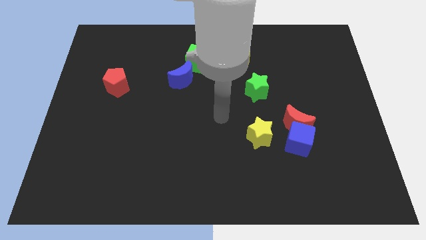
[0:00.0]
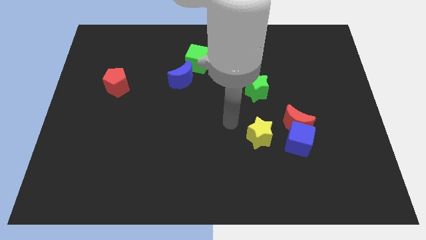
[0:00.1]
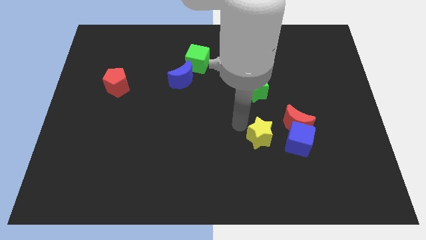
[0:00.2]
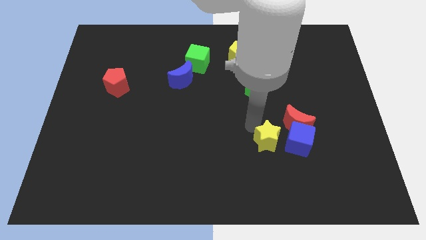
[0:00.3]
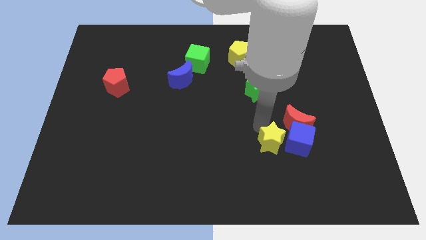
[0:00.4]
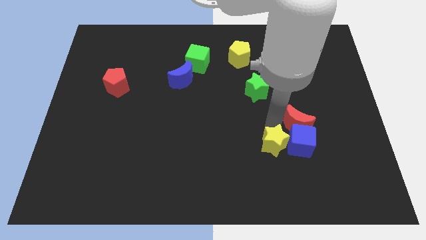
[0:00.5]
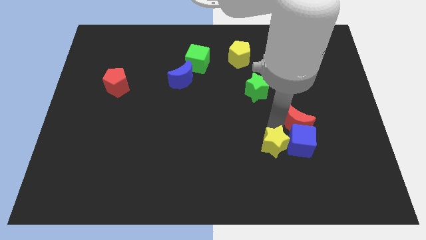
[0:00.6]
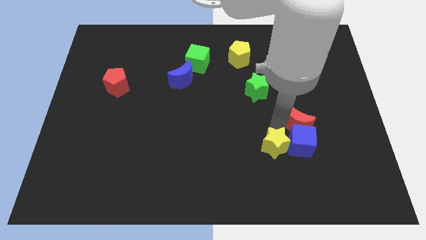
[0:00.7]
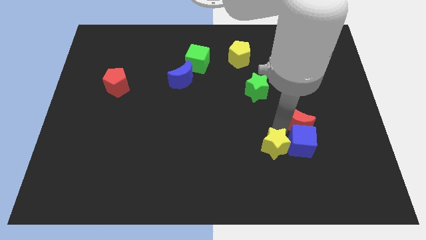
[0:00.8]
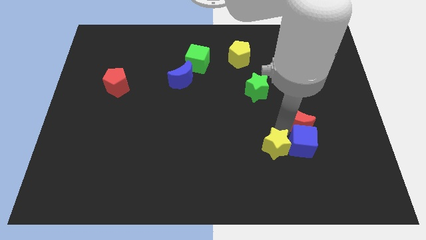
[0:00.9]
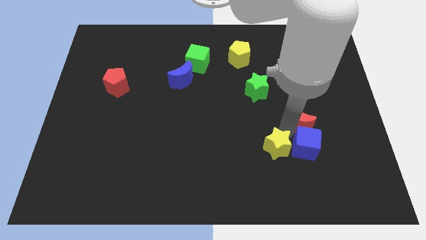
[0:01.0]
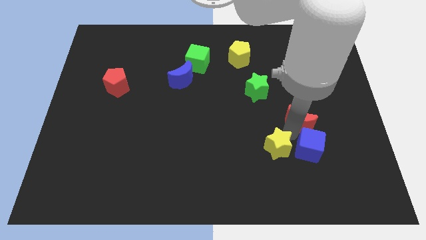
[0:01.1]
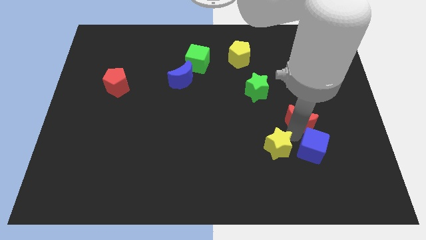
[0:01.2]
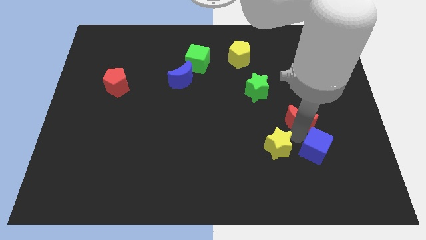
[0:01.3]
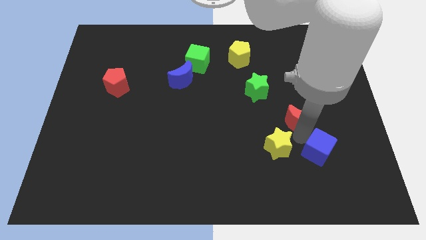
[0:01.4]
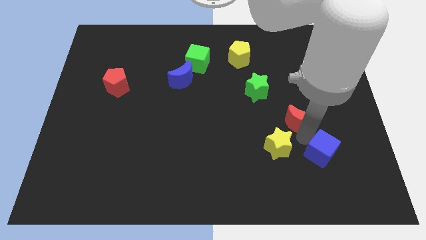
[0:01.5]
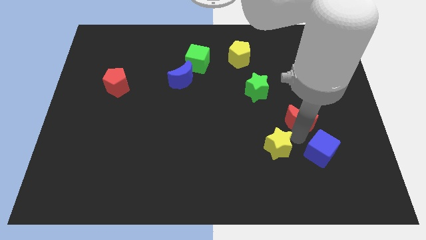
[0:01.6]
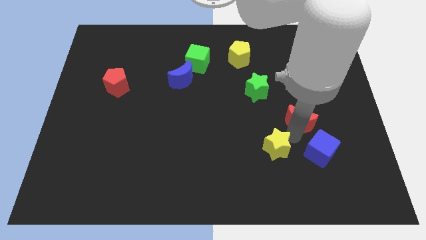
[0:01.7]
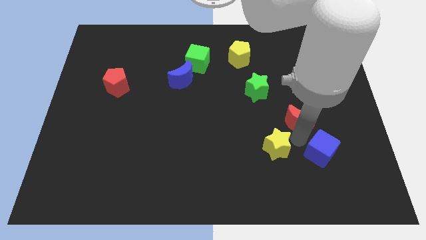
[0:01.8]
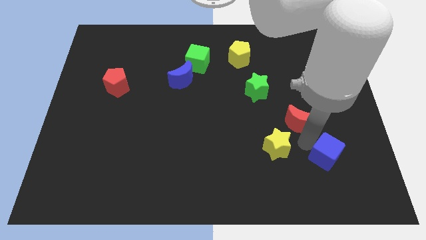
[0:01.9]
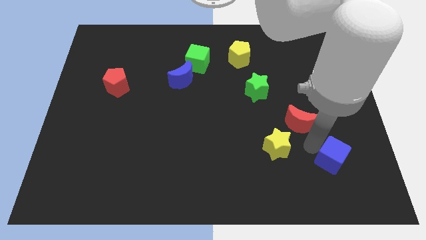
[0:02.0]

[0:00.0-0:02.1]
separate the blue cube from the red moon and yellow star

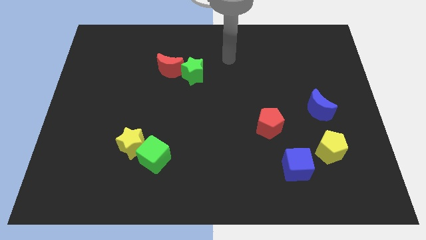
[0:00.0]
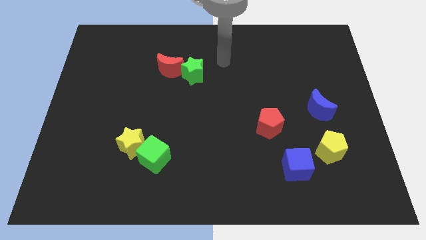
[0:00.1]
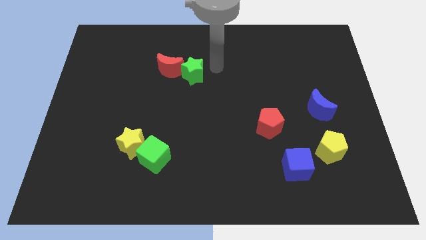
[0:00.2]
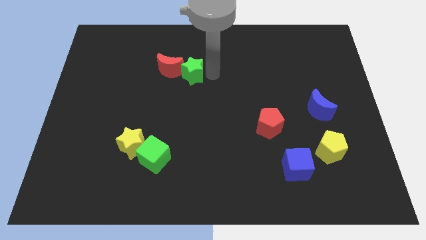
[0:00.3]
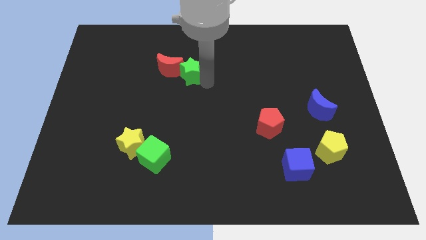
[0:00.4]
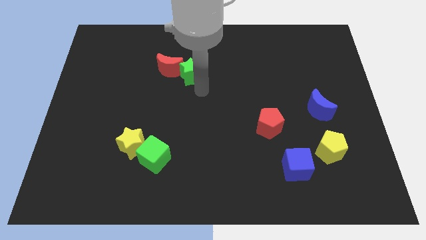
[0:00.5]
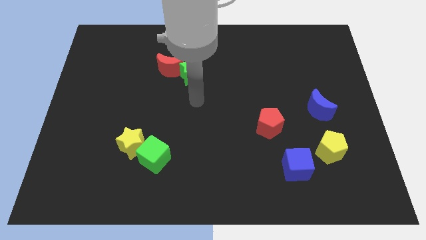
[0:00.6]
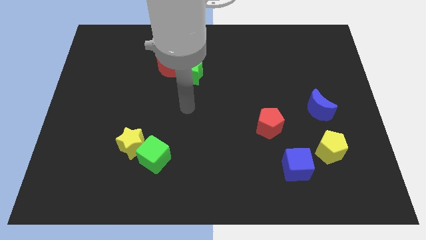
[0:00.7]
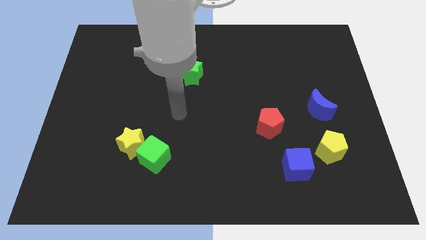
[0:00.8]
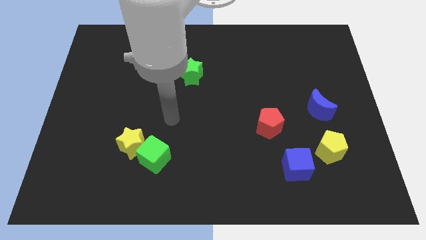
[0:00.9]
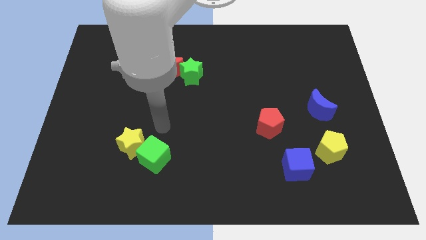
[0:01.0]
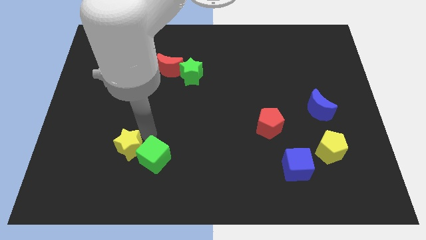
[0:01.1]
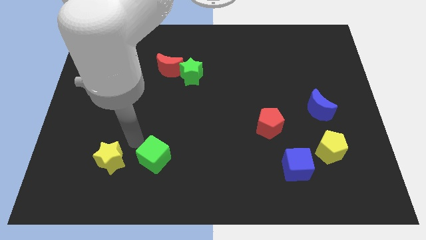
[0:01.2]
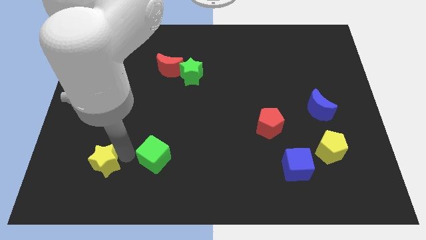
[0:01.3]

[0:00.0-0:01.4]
separate the green cube from the yellow star

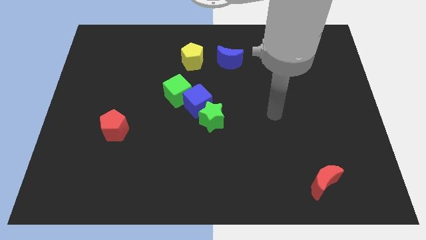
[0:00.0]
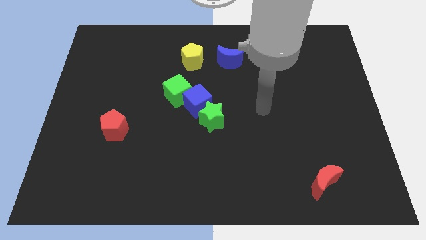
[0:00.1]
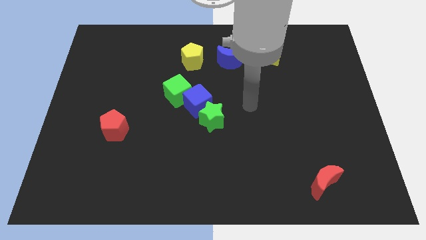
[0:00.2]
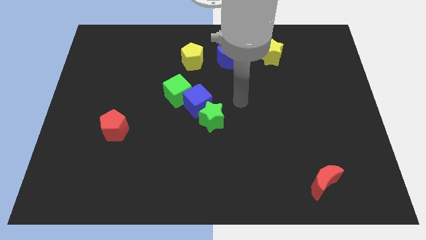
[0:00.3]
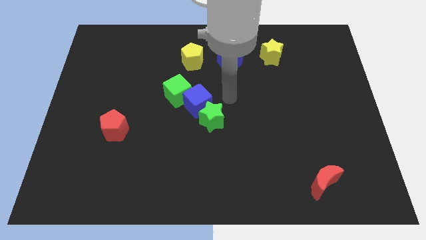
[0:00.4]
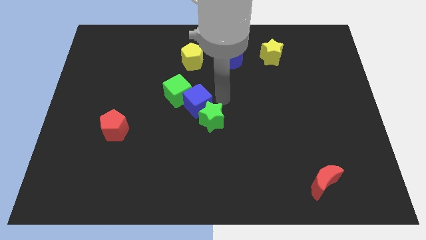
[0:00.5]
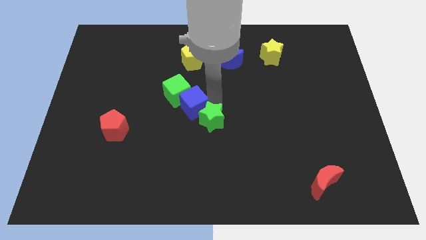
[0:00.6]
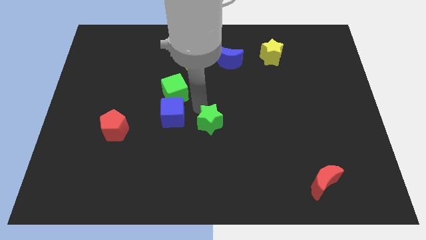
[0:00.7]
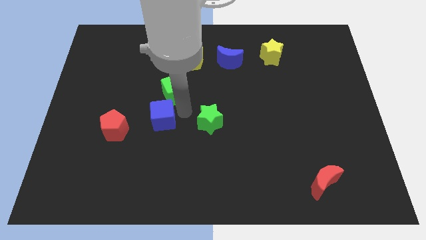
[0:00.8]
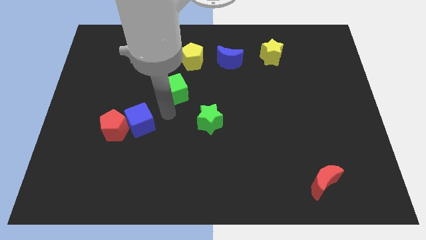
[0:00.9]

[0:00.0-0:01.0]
separate the green cube from the blue cube

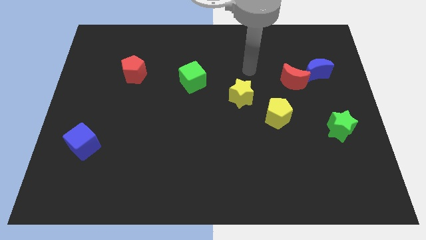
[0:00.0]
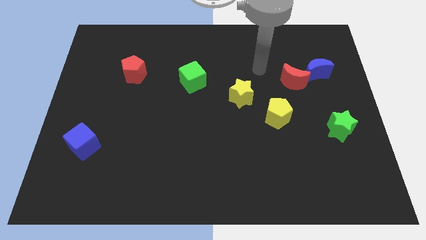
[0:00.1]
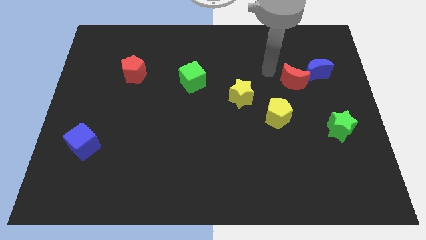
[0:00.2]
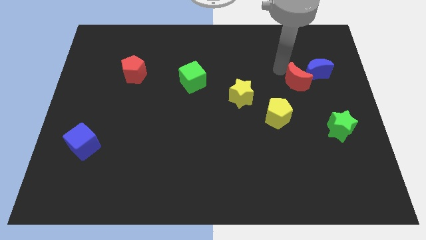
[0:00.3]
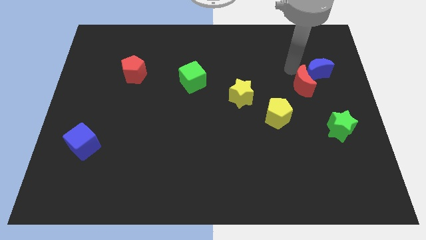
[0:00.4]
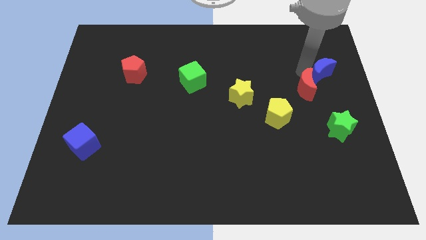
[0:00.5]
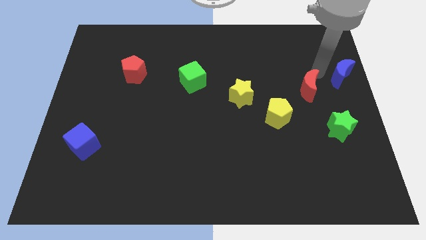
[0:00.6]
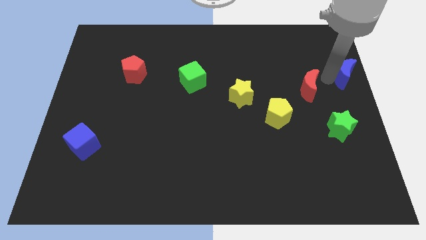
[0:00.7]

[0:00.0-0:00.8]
separate the red moon from the blue moon

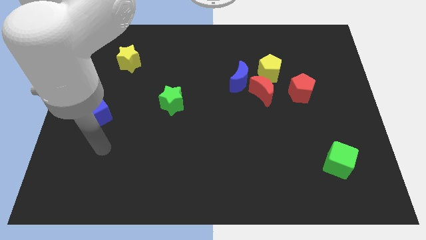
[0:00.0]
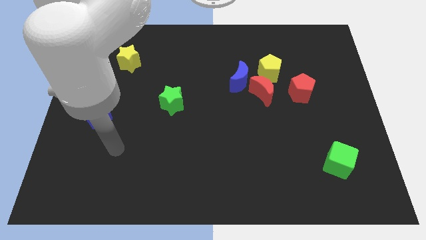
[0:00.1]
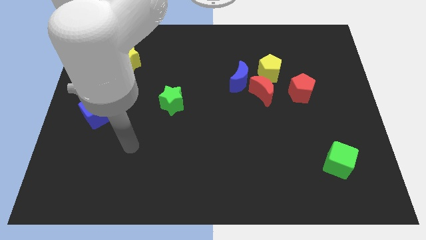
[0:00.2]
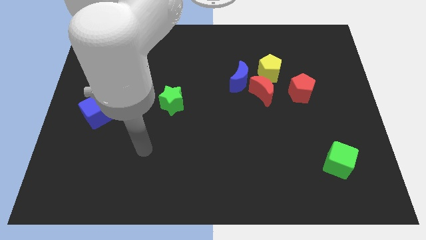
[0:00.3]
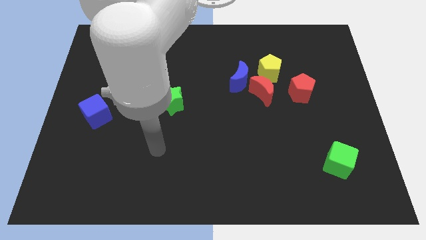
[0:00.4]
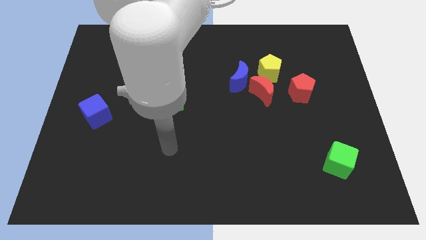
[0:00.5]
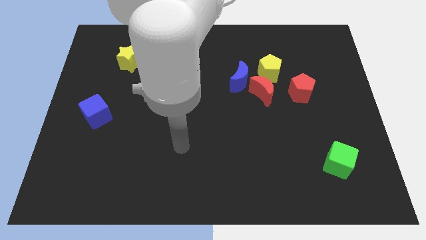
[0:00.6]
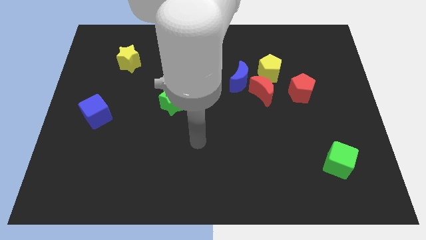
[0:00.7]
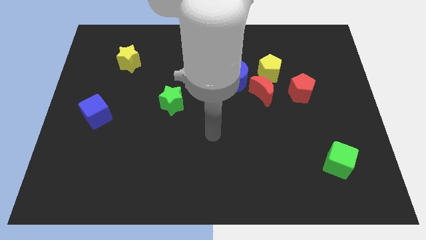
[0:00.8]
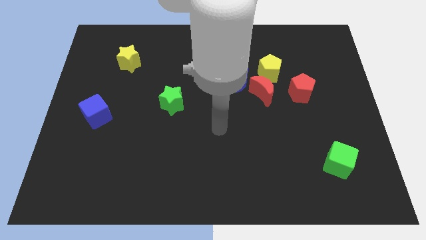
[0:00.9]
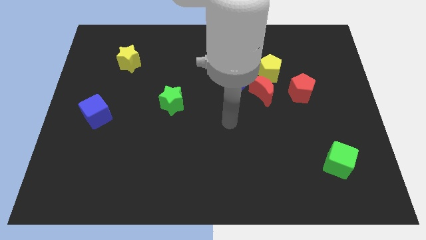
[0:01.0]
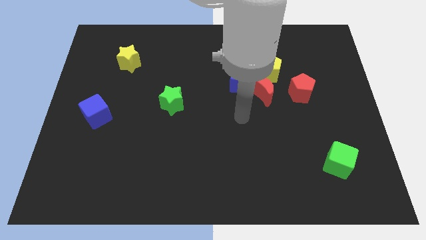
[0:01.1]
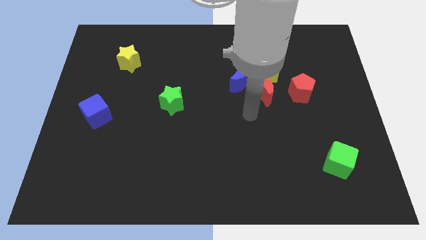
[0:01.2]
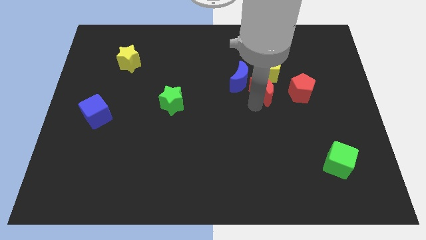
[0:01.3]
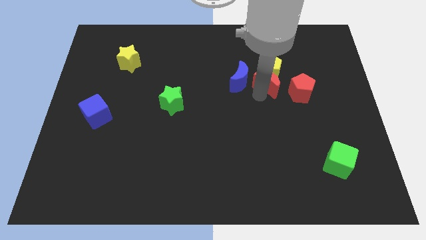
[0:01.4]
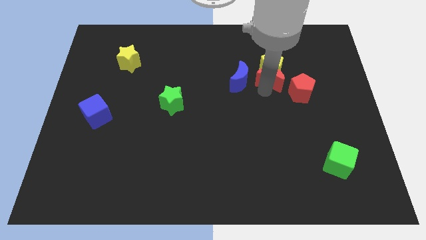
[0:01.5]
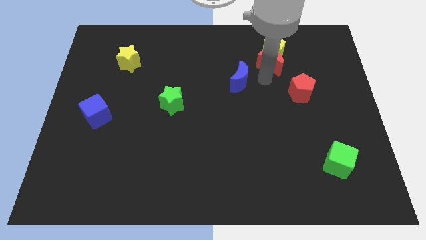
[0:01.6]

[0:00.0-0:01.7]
pull the blue moon apart from the red moon and yellow pentagon

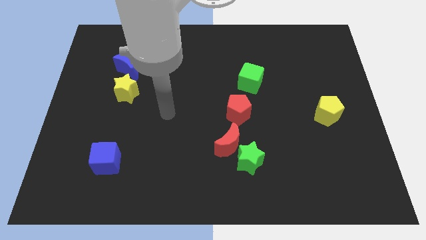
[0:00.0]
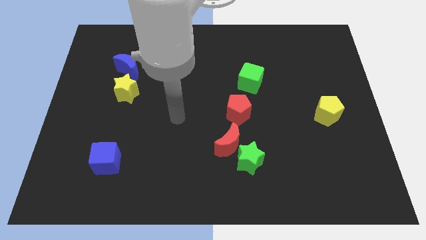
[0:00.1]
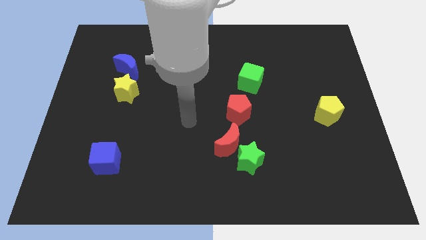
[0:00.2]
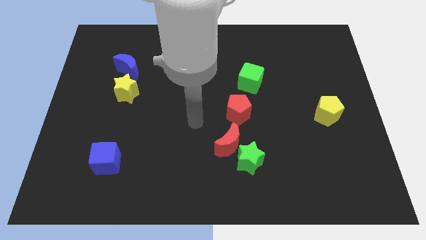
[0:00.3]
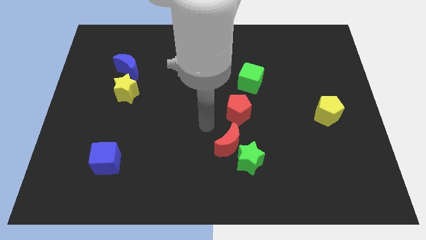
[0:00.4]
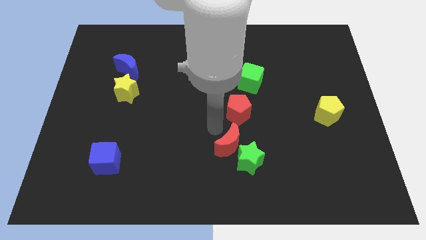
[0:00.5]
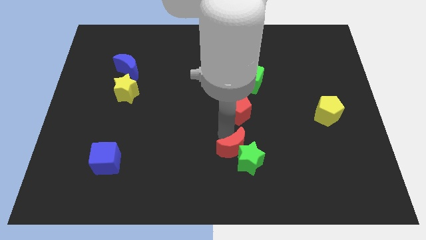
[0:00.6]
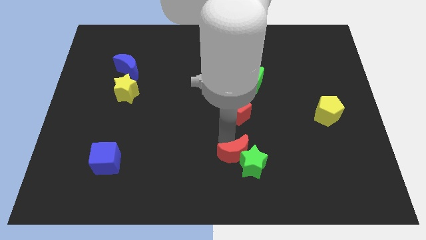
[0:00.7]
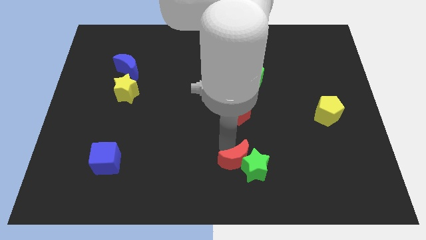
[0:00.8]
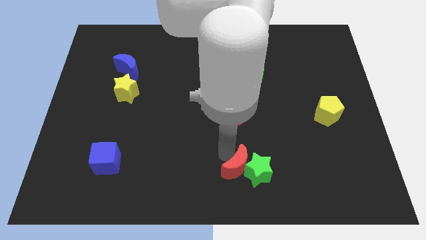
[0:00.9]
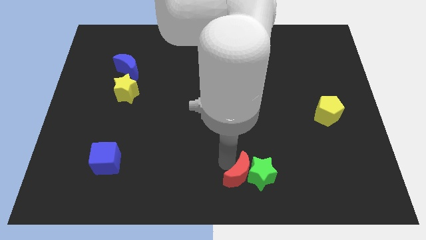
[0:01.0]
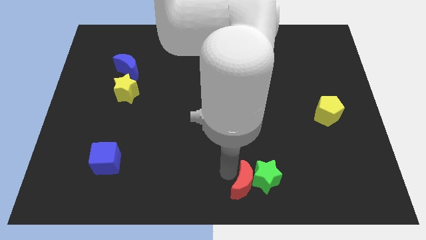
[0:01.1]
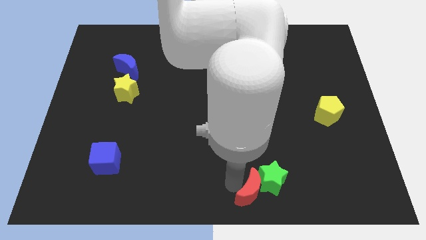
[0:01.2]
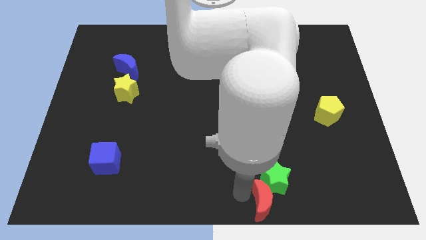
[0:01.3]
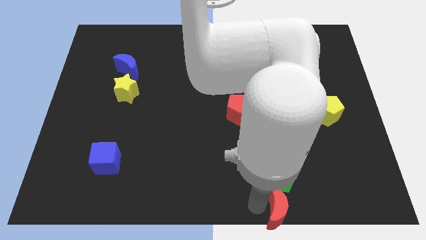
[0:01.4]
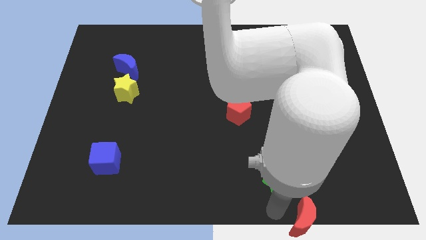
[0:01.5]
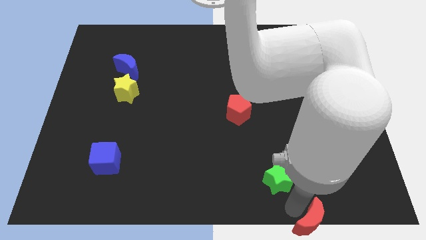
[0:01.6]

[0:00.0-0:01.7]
pull the green star apart from the red moon

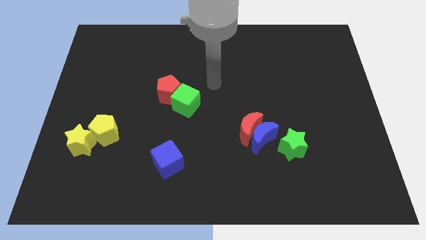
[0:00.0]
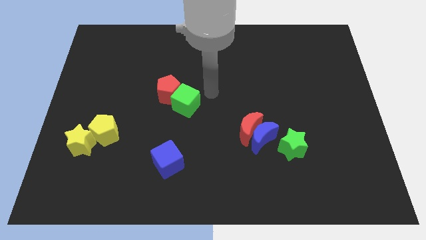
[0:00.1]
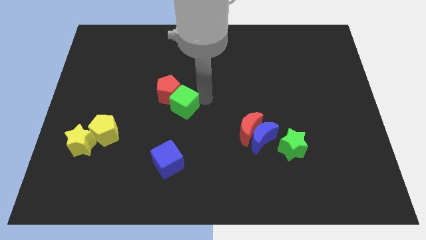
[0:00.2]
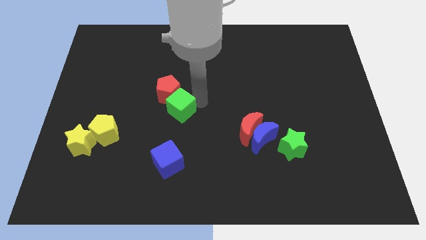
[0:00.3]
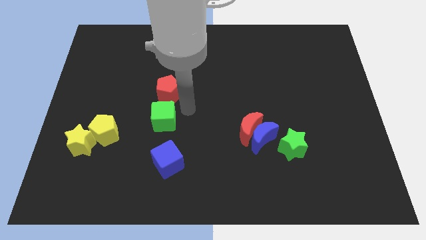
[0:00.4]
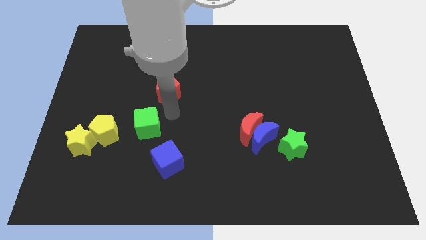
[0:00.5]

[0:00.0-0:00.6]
pull the red pentagon apart from the green cube
